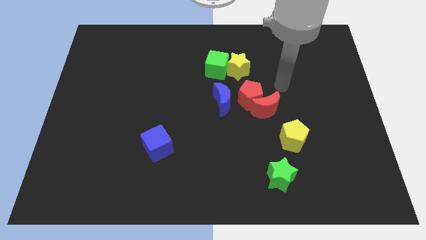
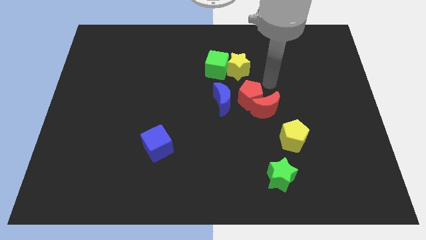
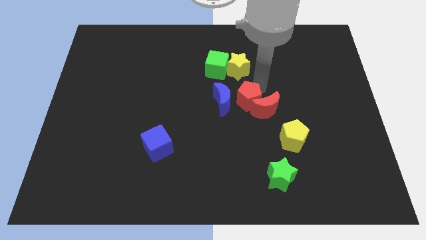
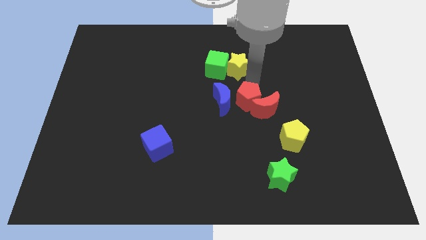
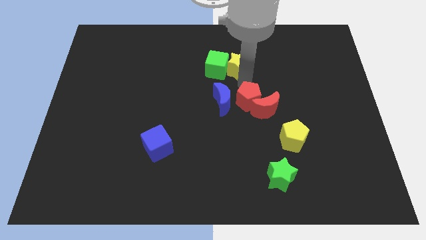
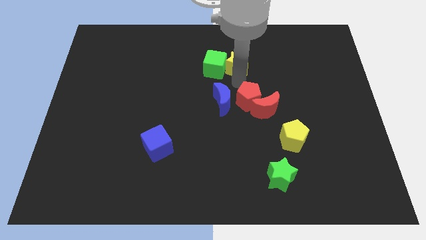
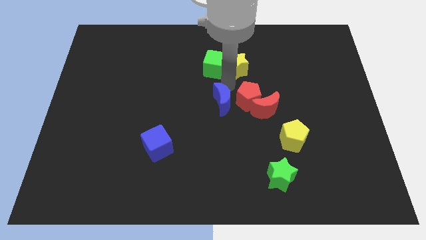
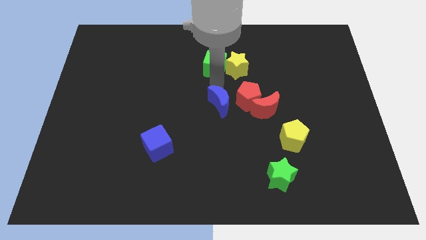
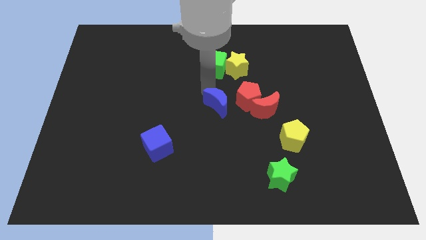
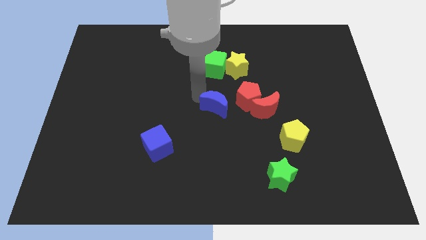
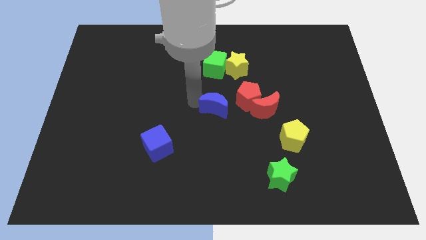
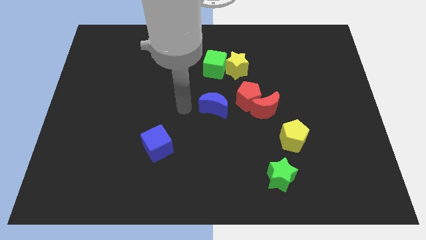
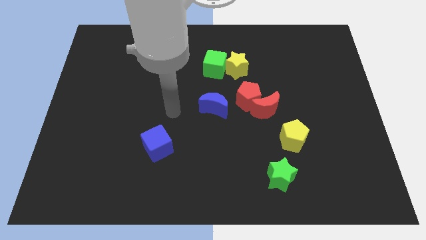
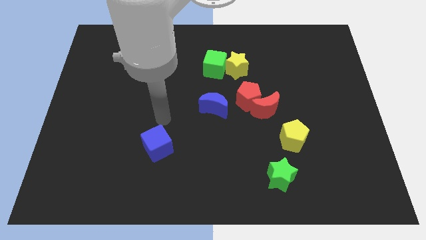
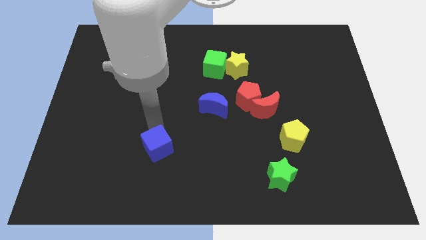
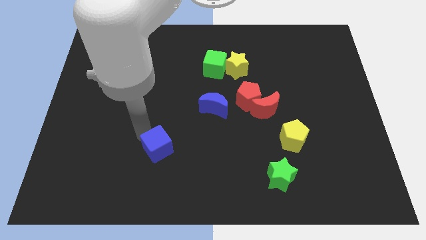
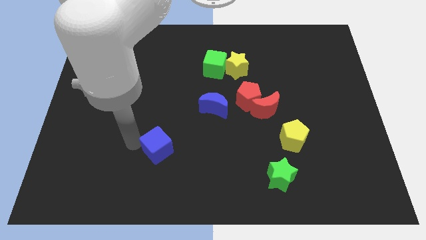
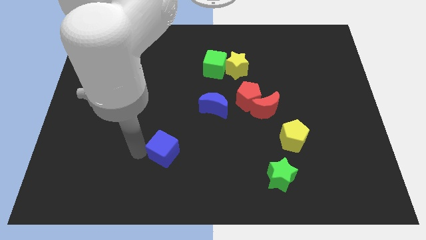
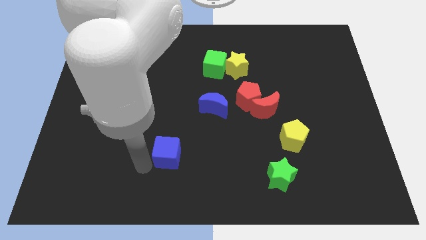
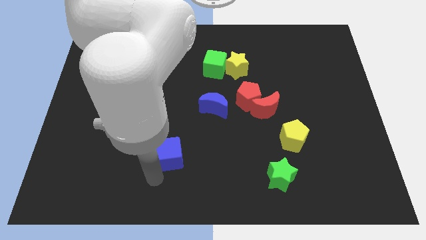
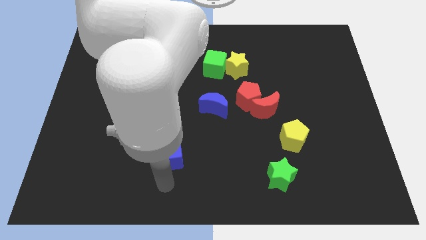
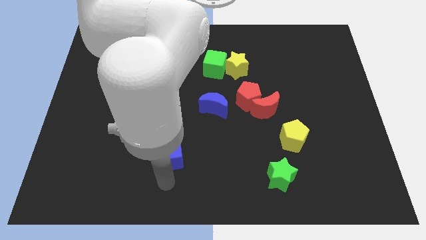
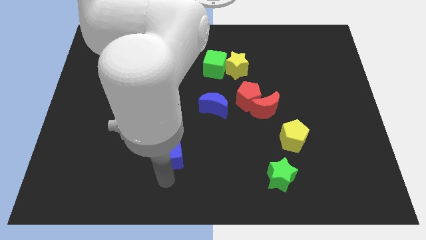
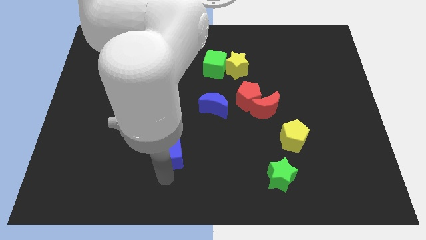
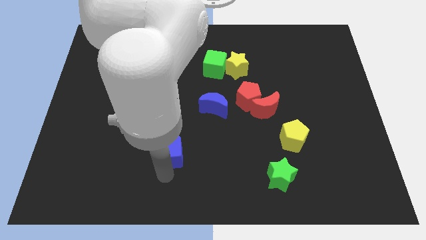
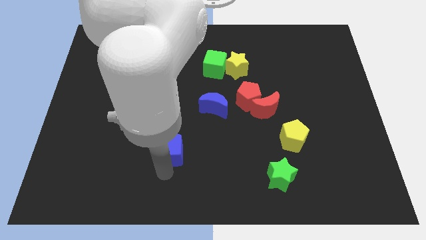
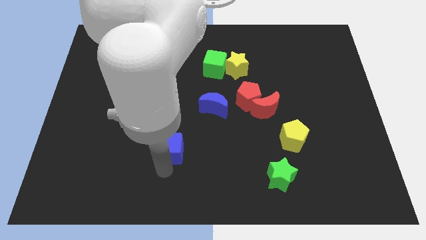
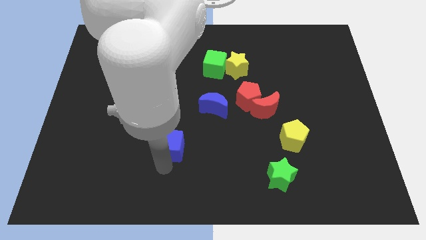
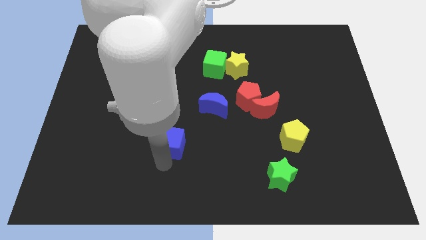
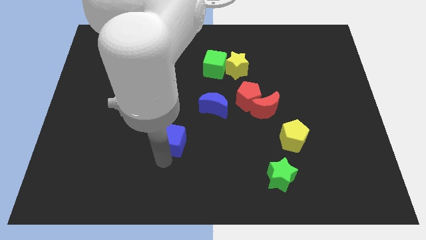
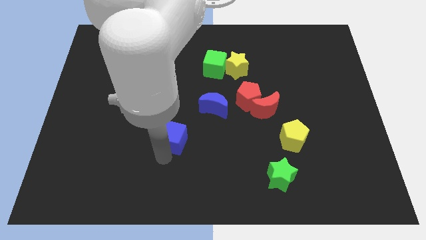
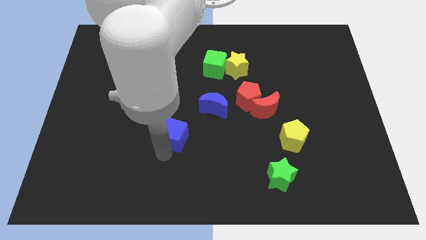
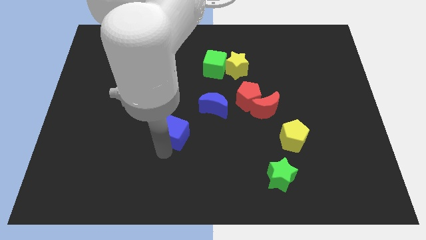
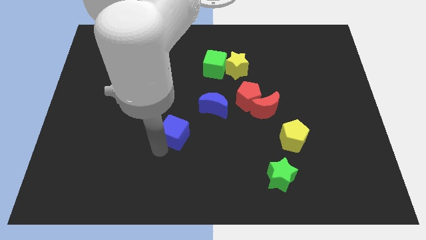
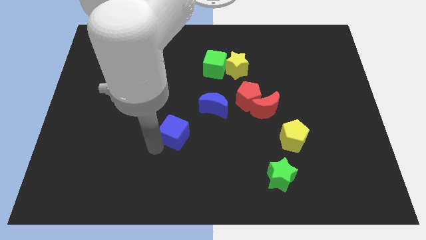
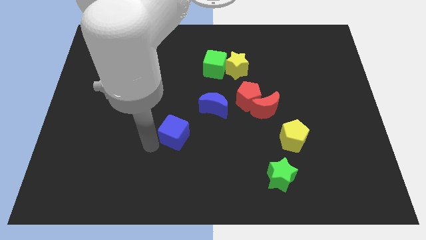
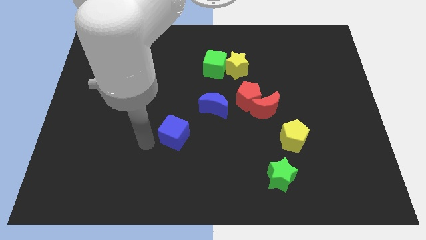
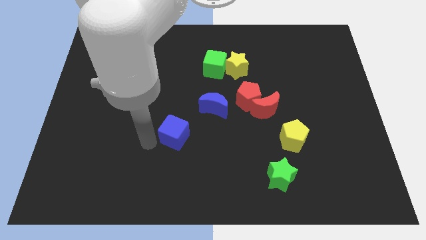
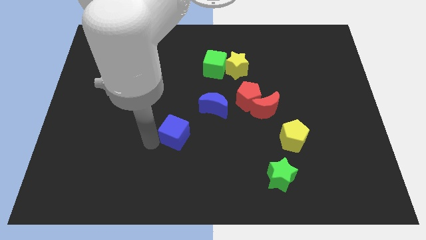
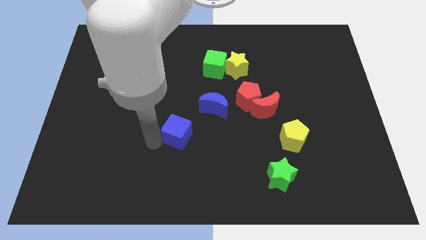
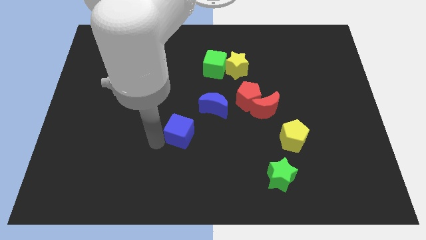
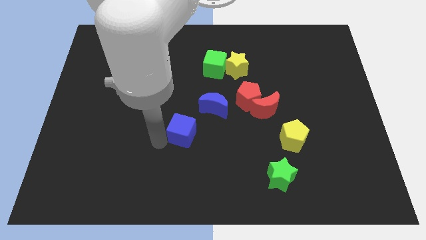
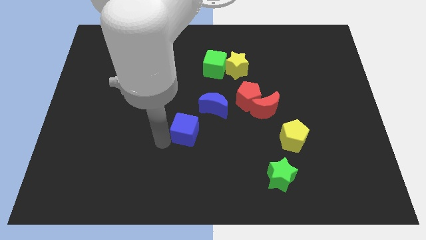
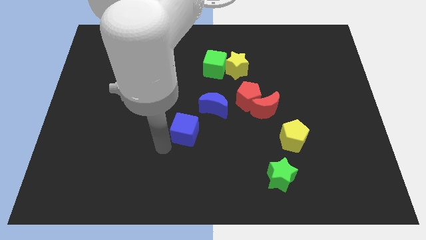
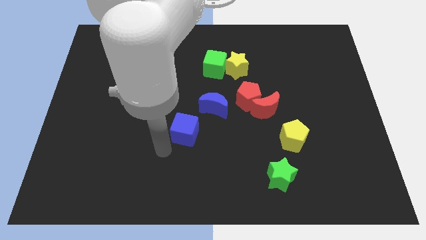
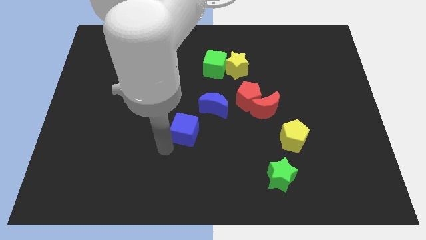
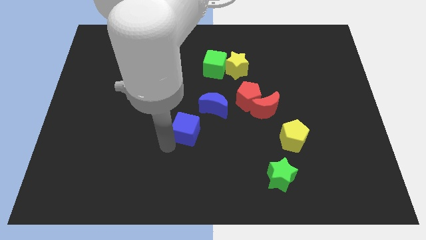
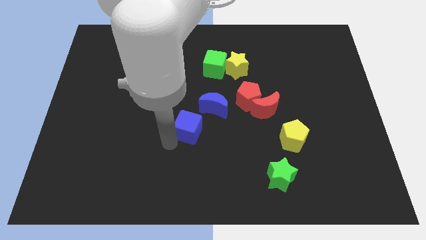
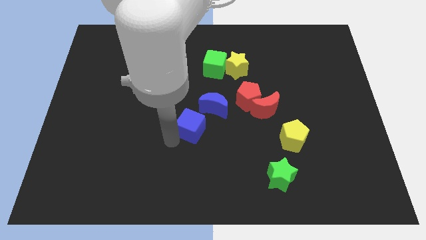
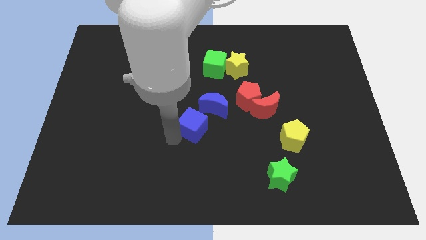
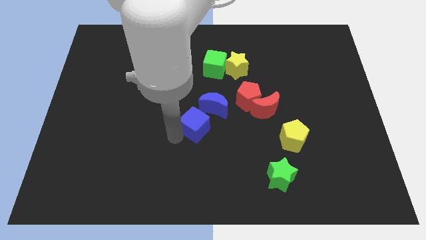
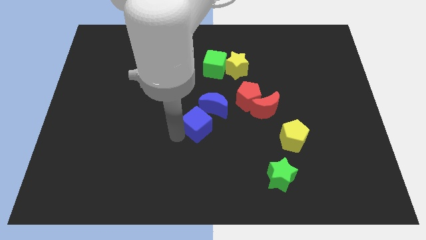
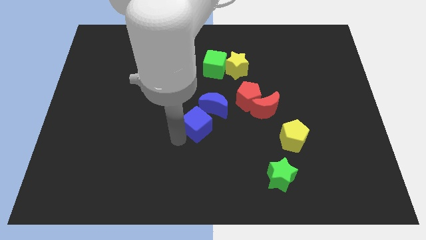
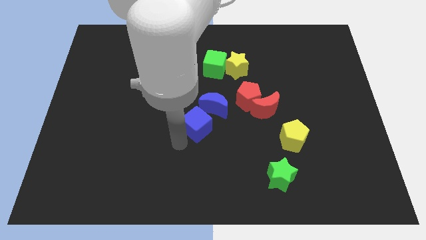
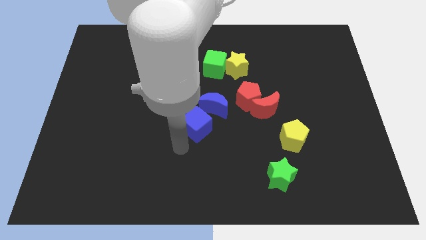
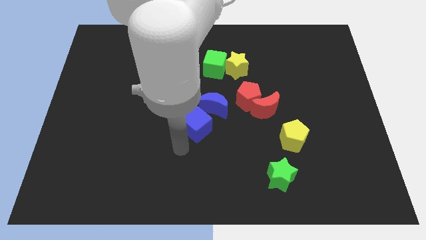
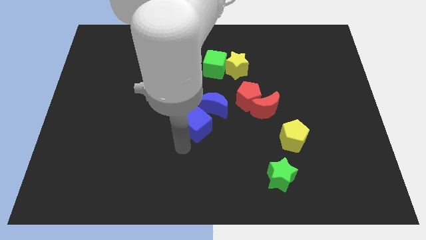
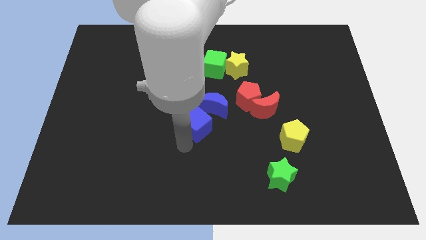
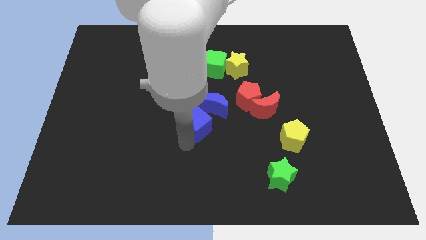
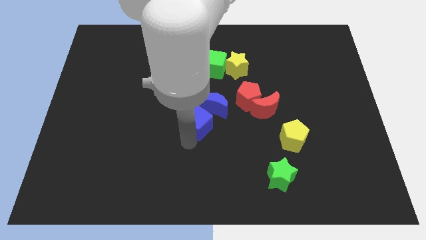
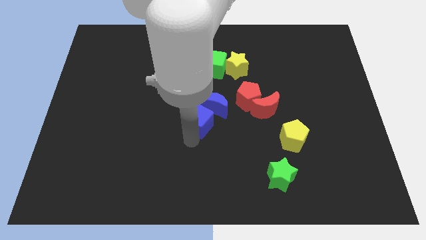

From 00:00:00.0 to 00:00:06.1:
put the blue cube next to the blue moon
